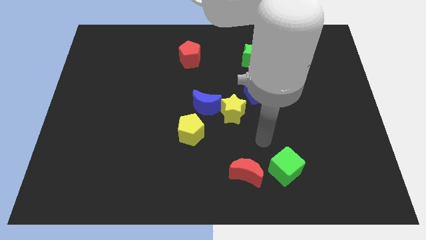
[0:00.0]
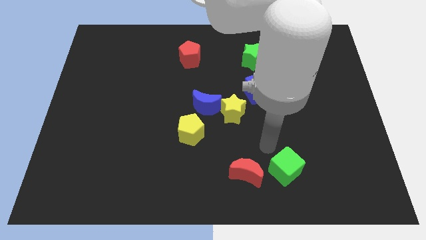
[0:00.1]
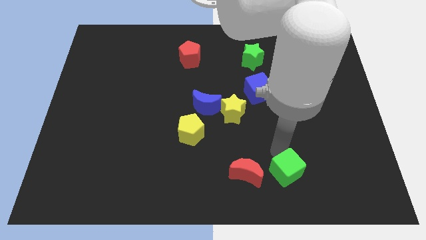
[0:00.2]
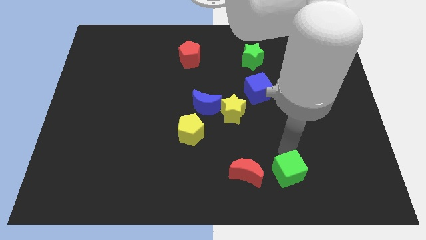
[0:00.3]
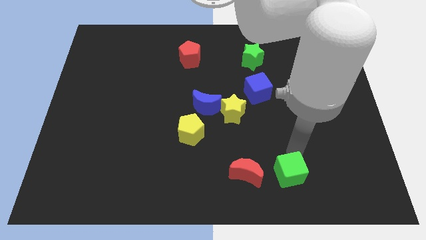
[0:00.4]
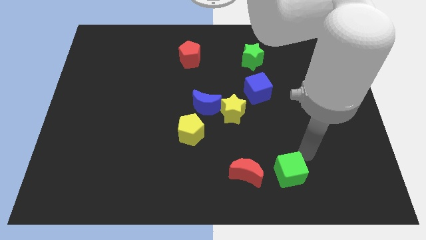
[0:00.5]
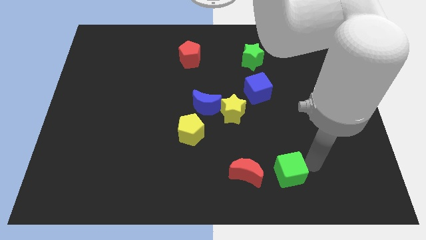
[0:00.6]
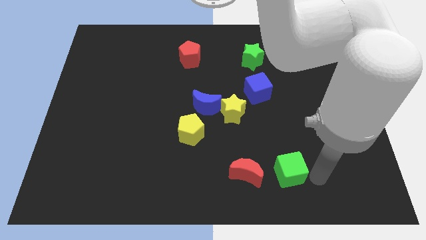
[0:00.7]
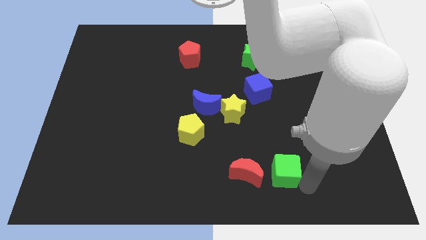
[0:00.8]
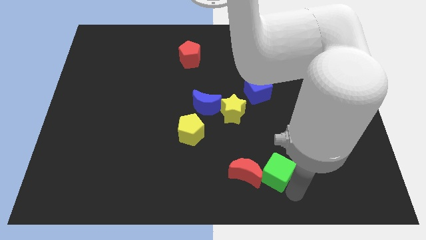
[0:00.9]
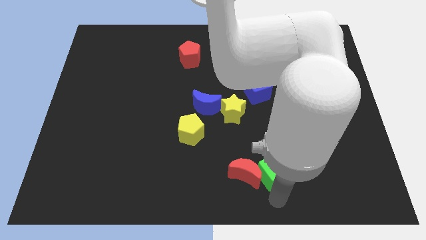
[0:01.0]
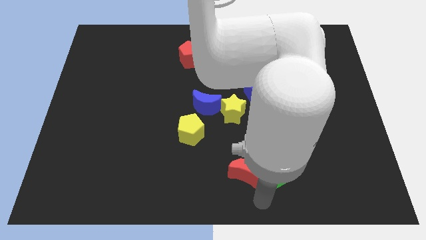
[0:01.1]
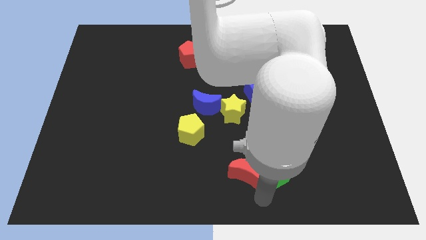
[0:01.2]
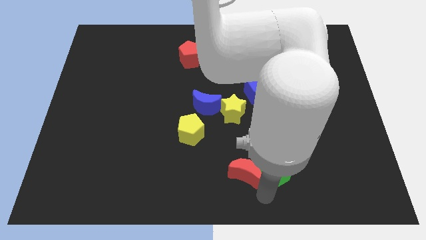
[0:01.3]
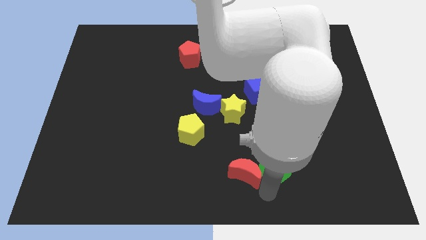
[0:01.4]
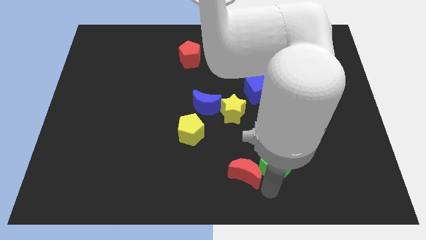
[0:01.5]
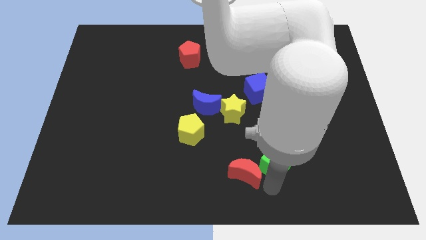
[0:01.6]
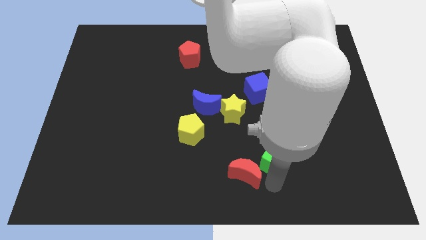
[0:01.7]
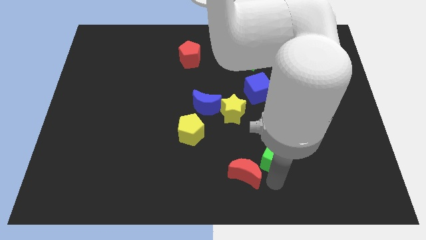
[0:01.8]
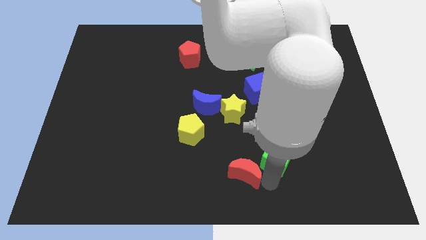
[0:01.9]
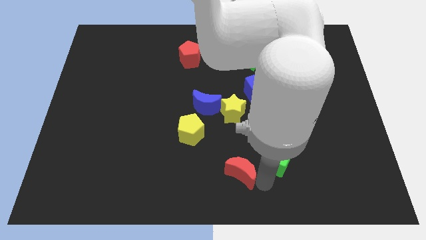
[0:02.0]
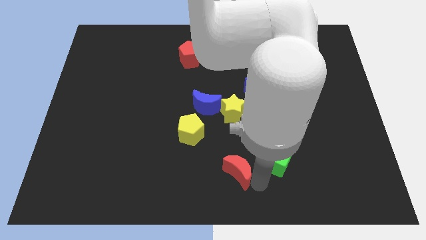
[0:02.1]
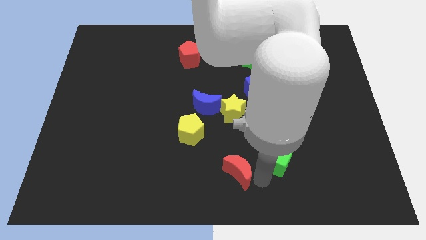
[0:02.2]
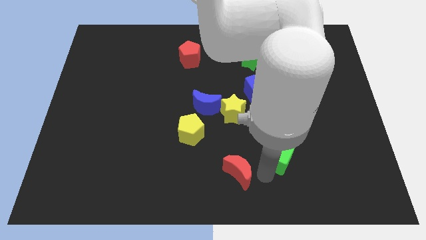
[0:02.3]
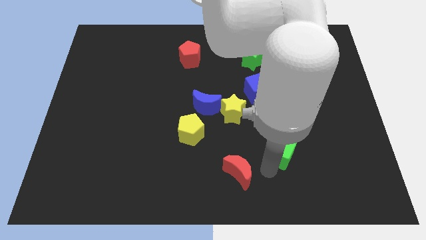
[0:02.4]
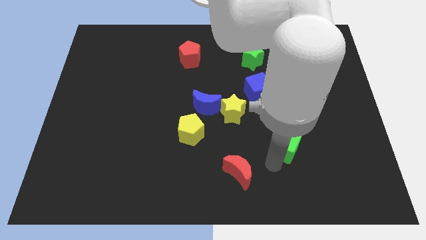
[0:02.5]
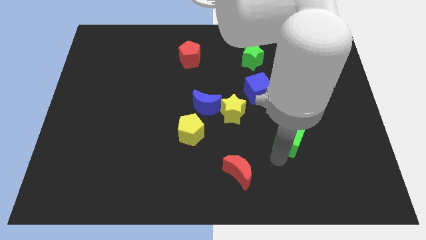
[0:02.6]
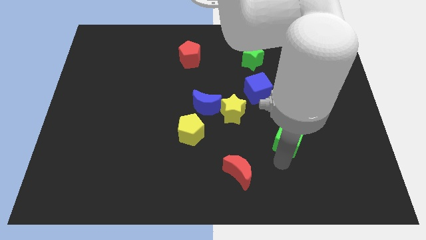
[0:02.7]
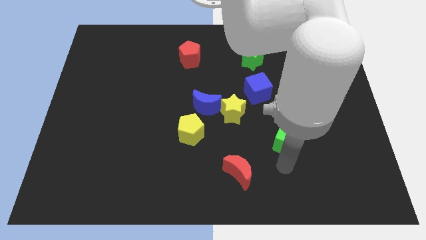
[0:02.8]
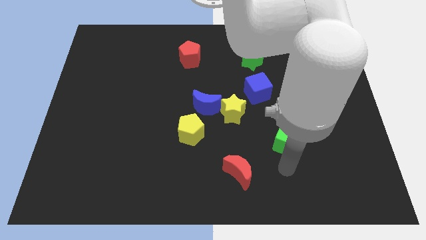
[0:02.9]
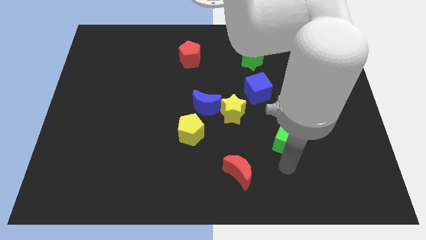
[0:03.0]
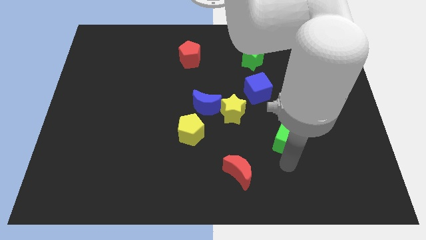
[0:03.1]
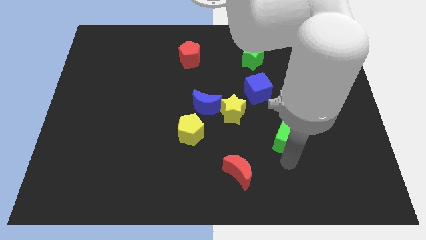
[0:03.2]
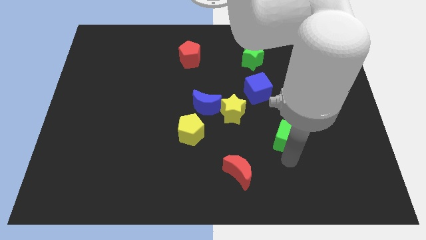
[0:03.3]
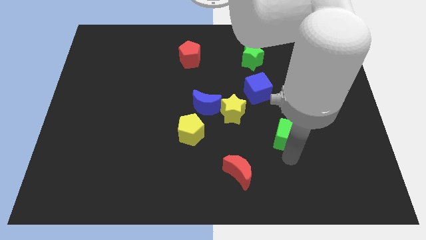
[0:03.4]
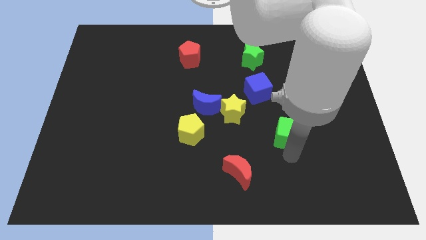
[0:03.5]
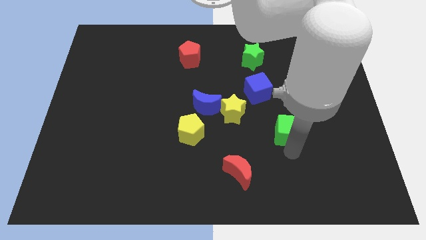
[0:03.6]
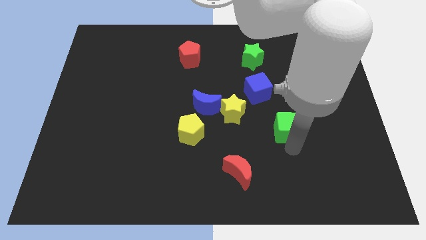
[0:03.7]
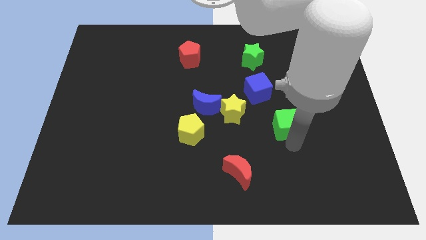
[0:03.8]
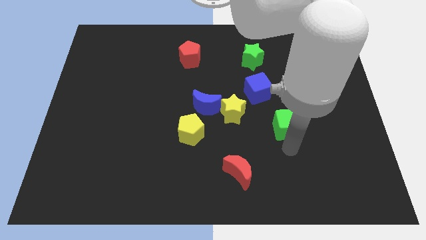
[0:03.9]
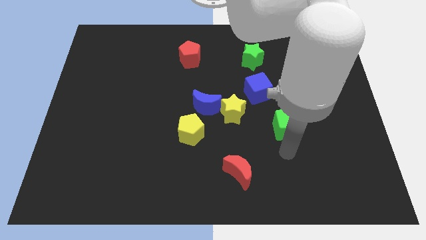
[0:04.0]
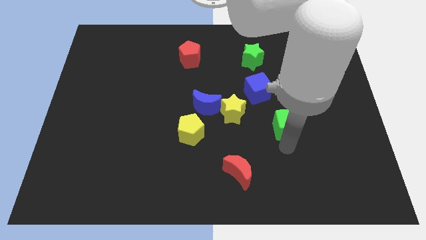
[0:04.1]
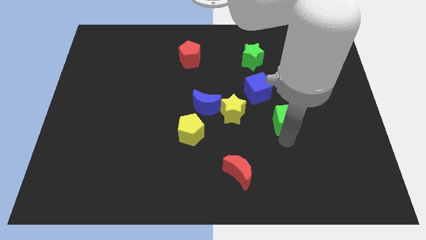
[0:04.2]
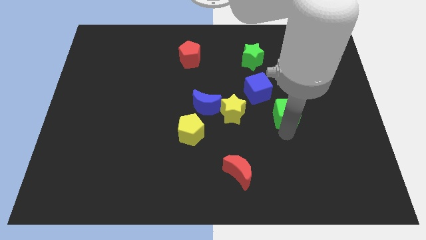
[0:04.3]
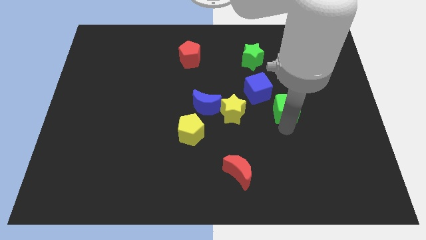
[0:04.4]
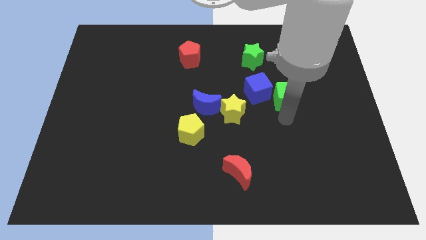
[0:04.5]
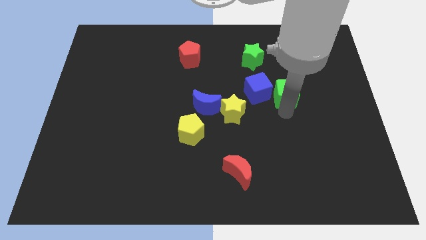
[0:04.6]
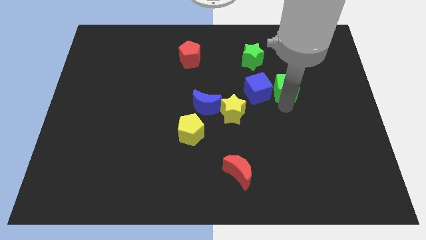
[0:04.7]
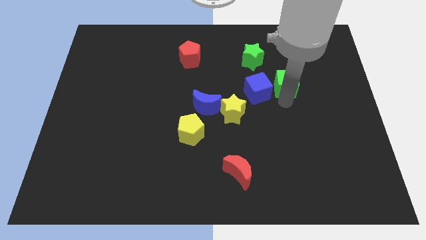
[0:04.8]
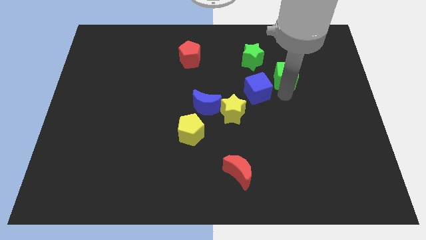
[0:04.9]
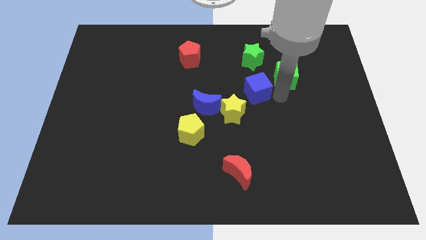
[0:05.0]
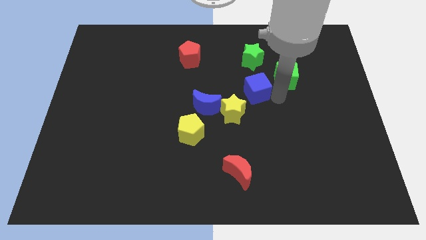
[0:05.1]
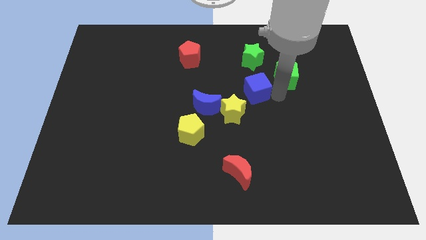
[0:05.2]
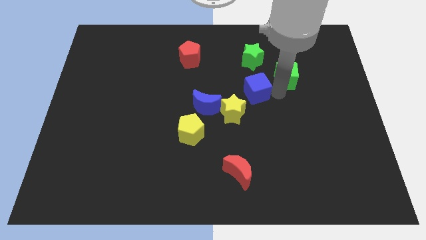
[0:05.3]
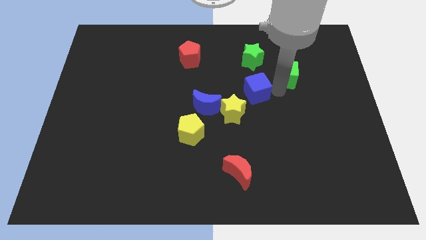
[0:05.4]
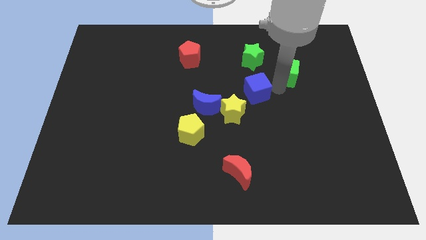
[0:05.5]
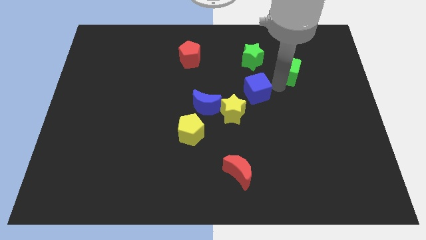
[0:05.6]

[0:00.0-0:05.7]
move the green cube right of the green star

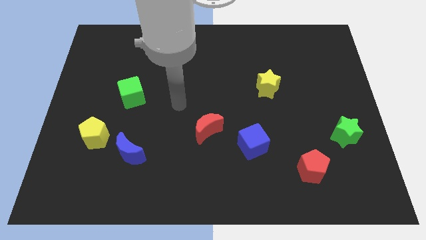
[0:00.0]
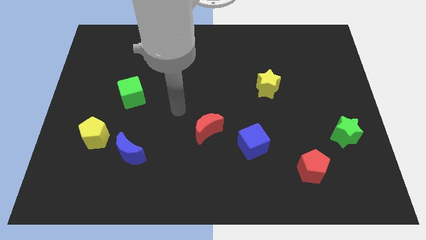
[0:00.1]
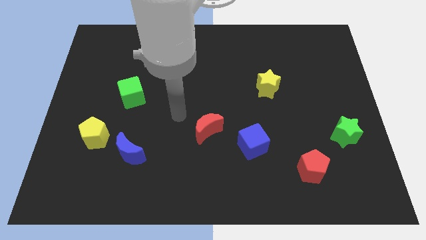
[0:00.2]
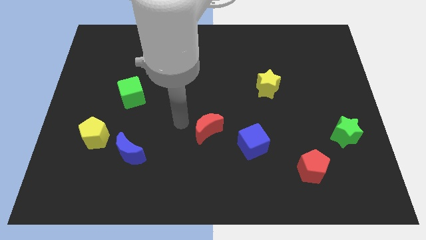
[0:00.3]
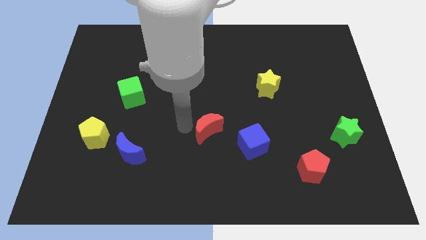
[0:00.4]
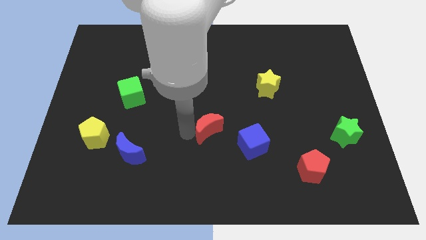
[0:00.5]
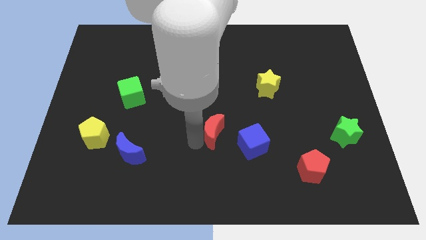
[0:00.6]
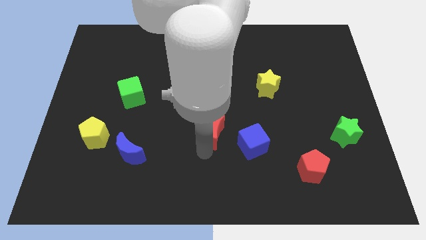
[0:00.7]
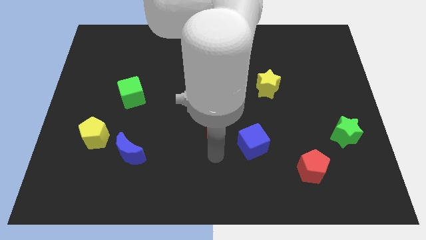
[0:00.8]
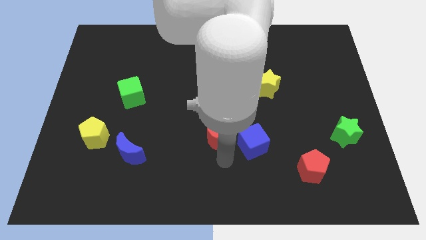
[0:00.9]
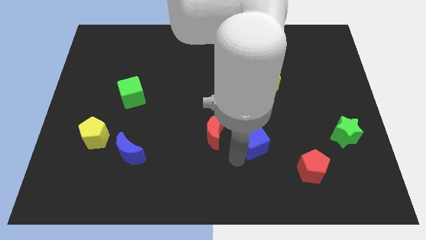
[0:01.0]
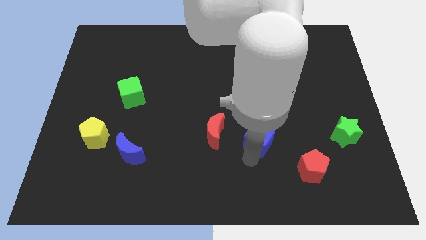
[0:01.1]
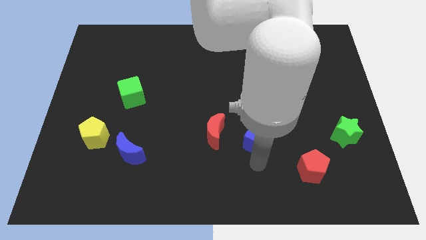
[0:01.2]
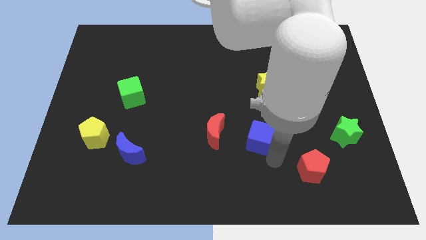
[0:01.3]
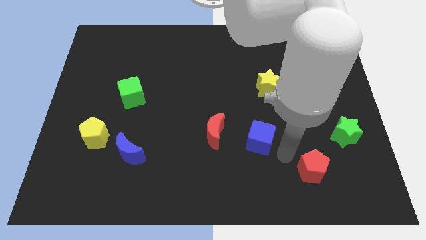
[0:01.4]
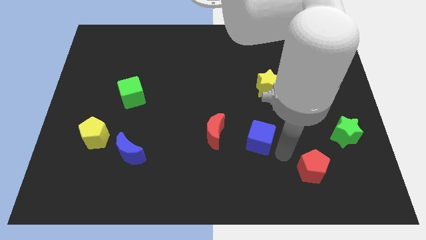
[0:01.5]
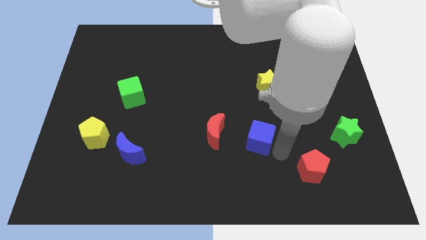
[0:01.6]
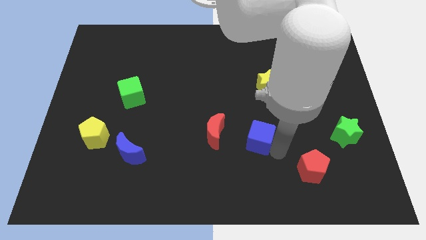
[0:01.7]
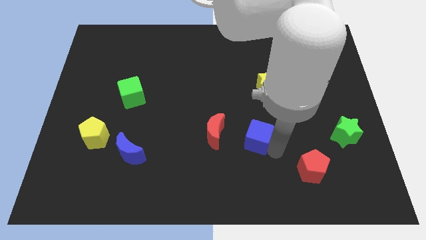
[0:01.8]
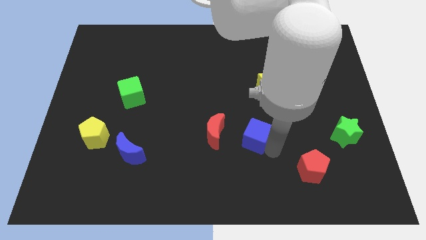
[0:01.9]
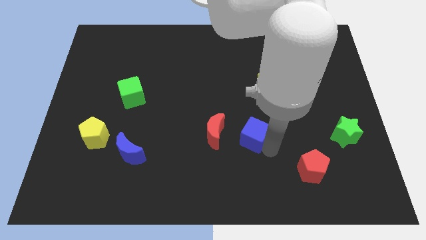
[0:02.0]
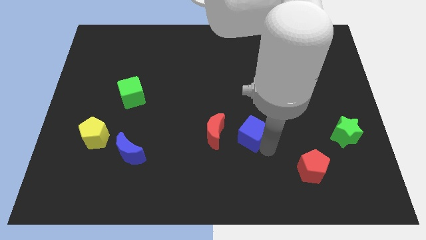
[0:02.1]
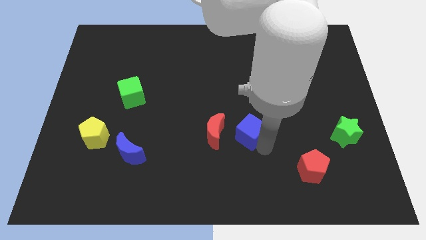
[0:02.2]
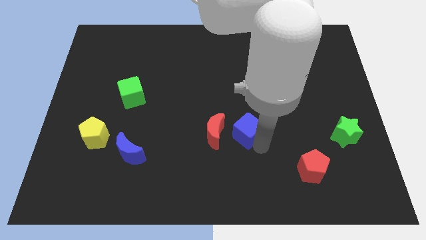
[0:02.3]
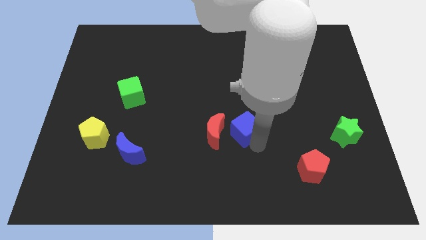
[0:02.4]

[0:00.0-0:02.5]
push the blue cube to the top right of the red moon
